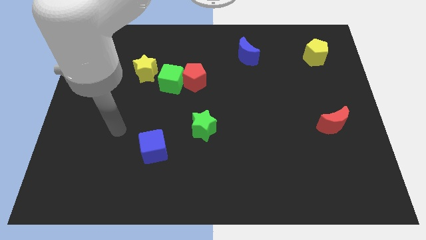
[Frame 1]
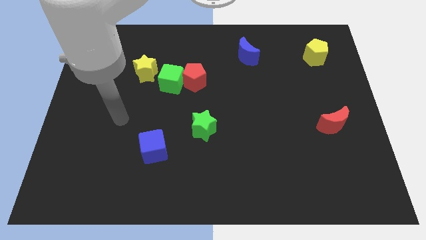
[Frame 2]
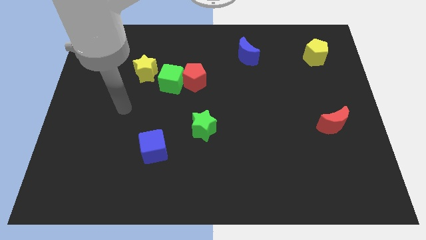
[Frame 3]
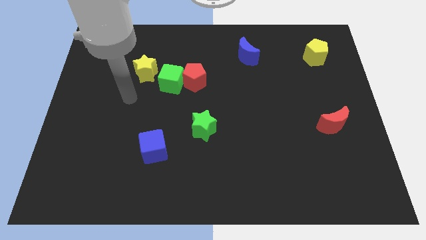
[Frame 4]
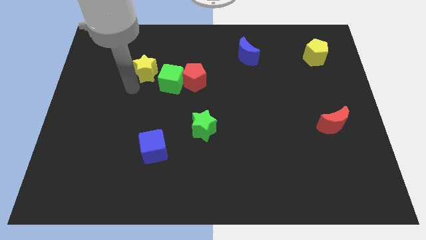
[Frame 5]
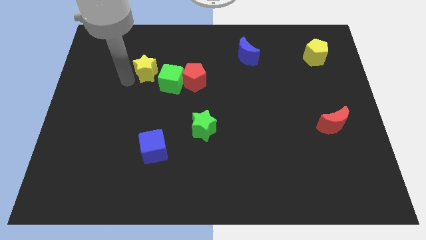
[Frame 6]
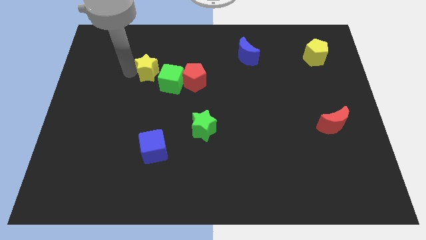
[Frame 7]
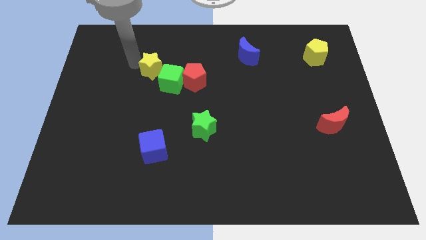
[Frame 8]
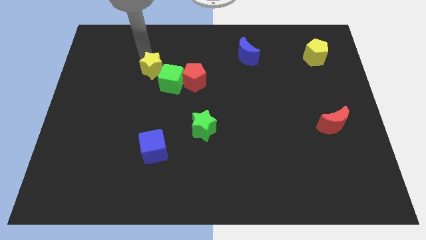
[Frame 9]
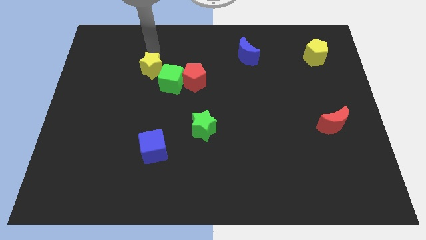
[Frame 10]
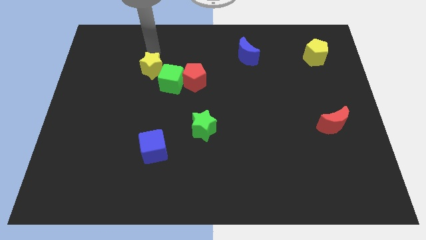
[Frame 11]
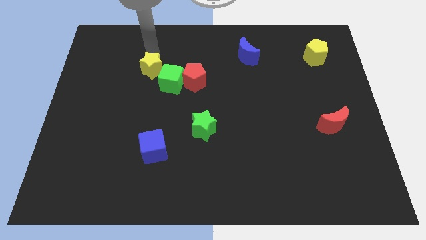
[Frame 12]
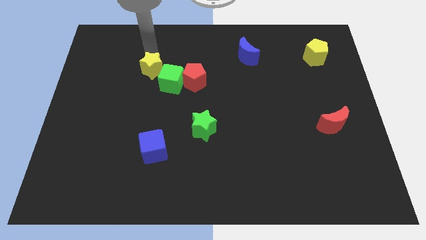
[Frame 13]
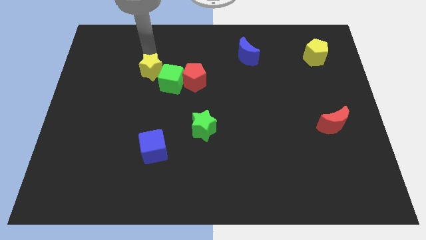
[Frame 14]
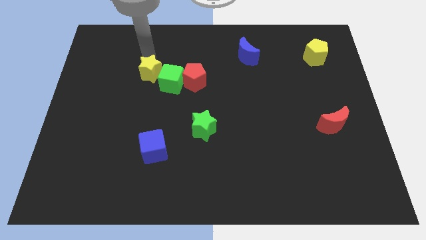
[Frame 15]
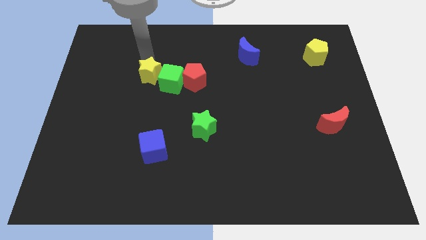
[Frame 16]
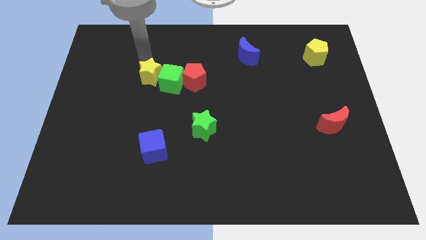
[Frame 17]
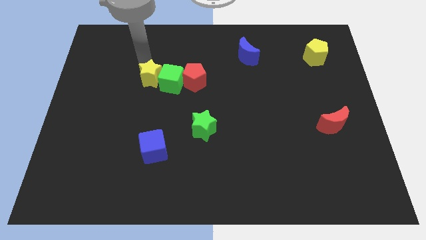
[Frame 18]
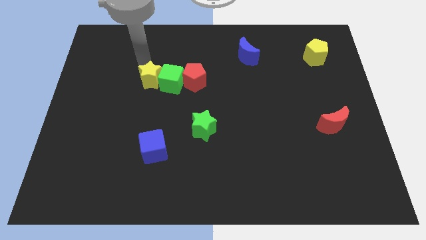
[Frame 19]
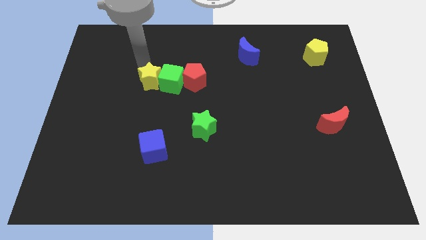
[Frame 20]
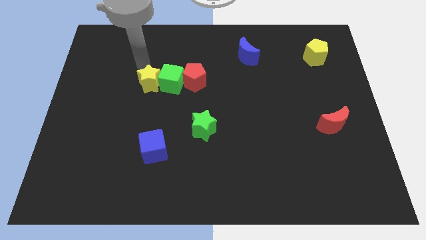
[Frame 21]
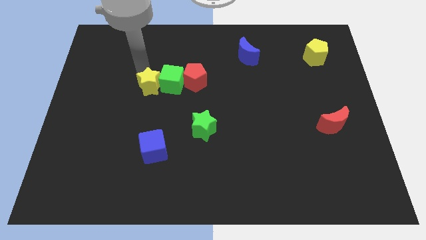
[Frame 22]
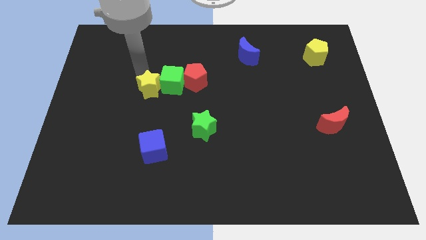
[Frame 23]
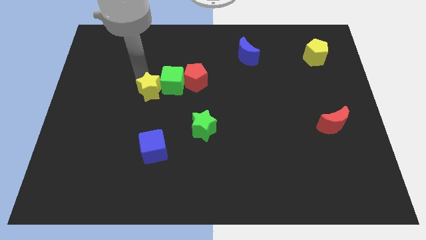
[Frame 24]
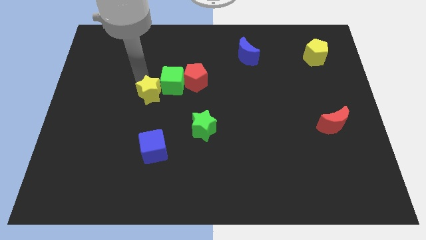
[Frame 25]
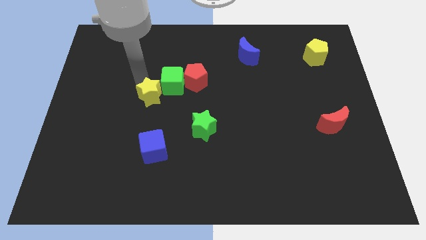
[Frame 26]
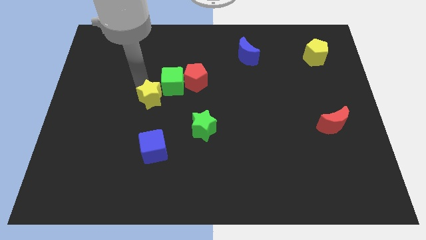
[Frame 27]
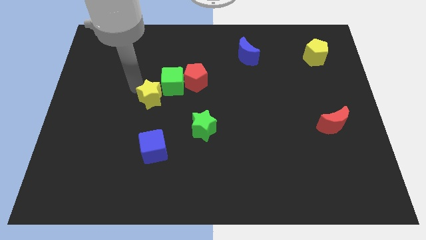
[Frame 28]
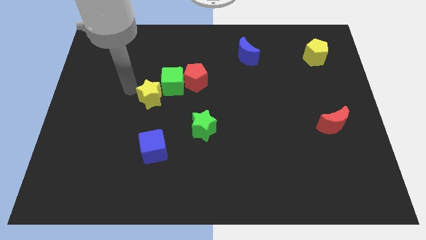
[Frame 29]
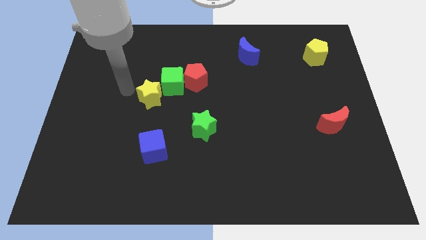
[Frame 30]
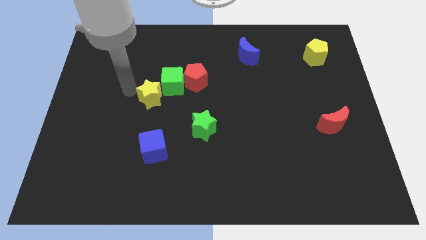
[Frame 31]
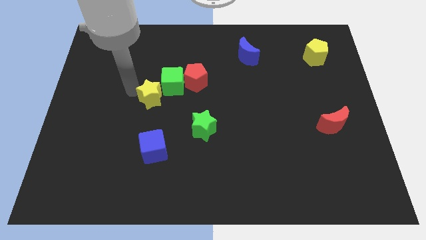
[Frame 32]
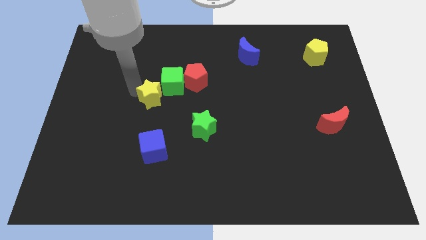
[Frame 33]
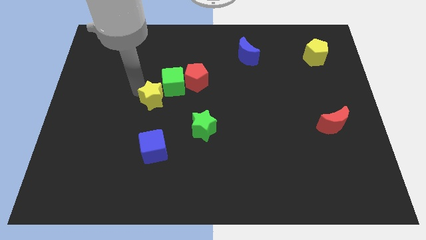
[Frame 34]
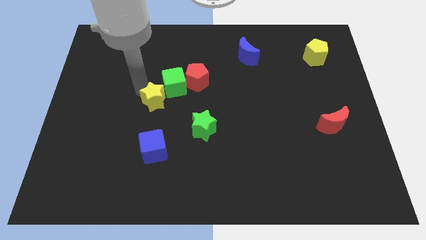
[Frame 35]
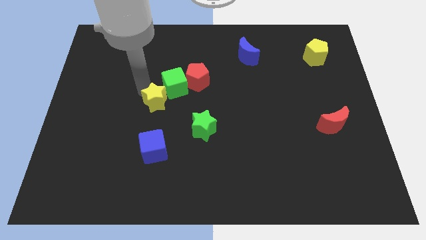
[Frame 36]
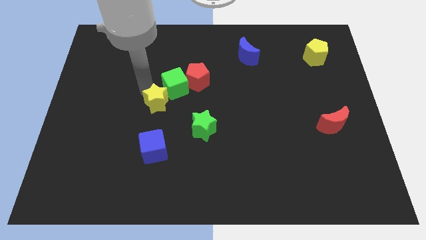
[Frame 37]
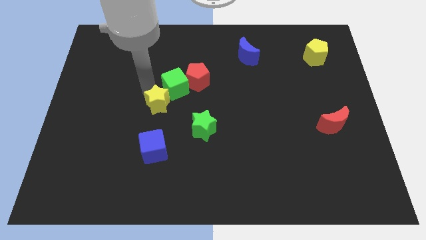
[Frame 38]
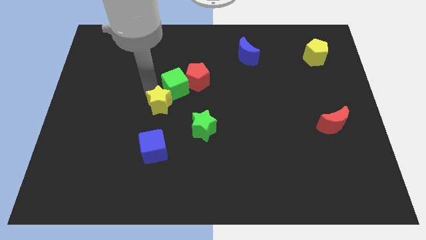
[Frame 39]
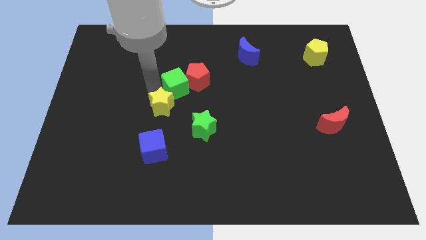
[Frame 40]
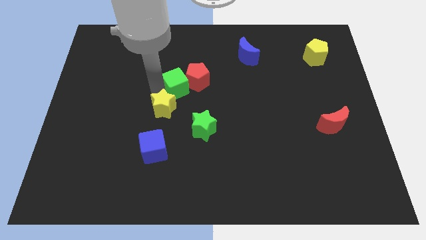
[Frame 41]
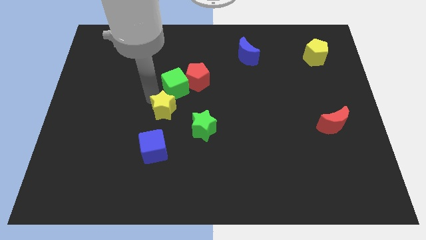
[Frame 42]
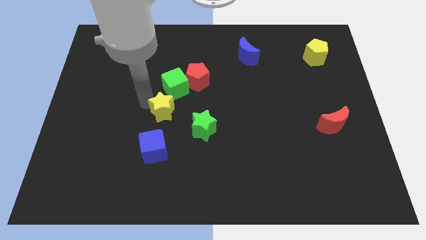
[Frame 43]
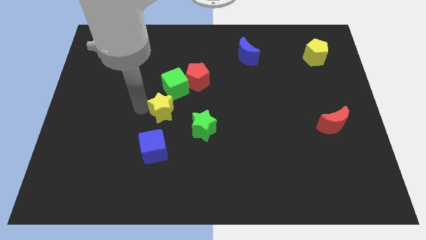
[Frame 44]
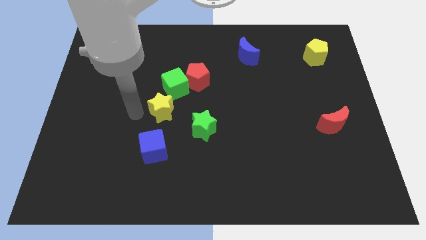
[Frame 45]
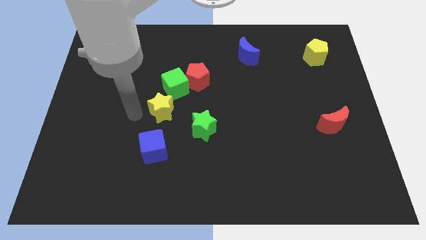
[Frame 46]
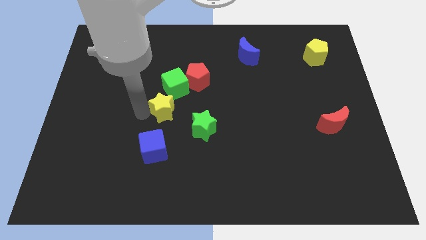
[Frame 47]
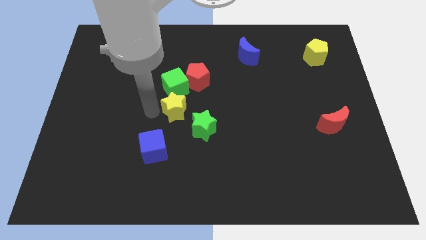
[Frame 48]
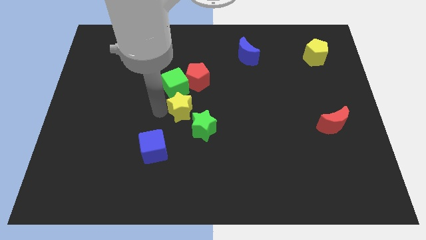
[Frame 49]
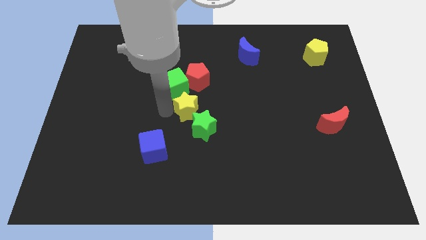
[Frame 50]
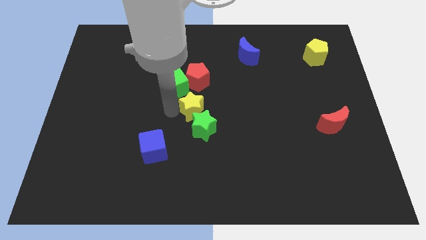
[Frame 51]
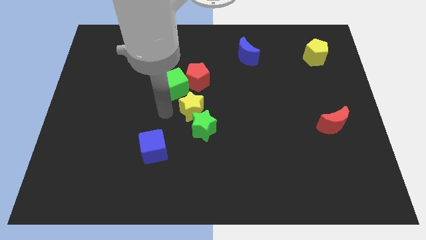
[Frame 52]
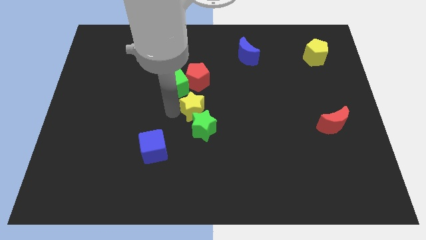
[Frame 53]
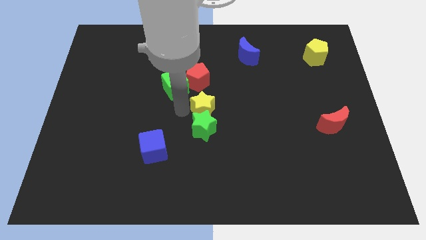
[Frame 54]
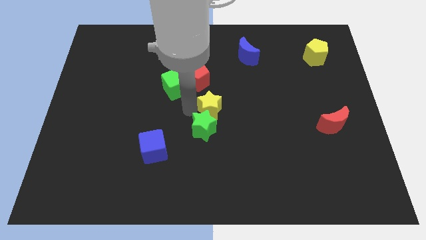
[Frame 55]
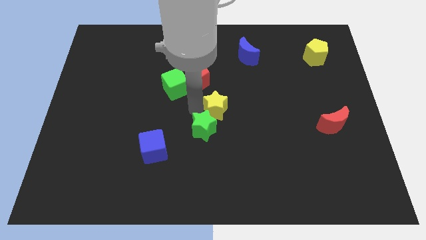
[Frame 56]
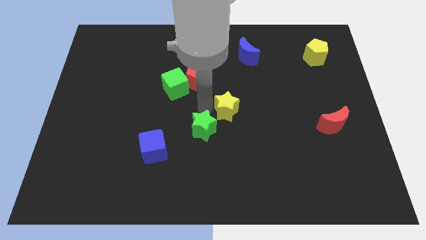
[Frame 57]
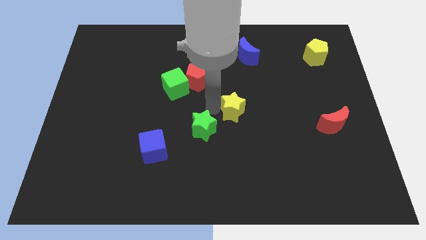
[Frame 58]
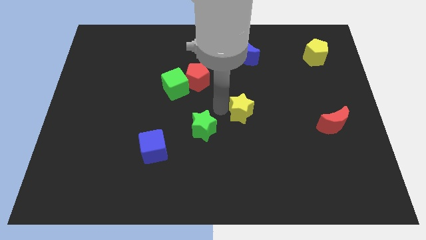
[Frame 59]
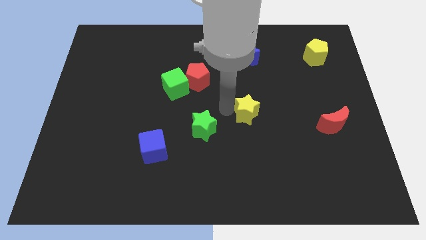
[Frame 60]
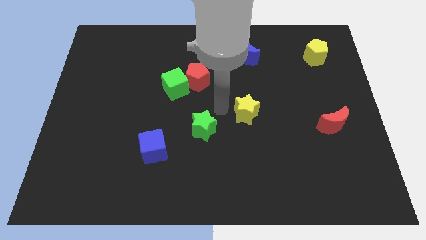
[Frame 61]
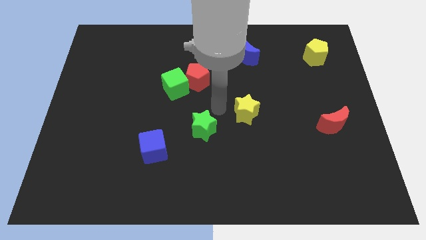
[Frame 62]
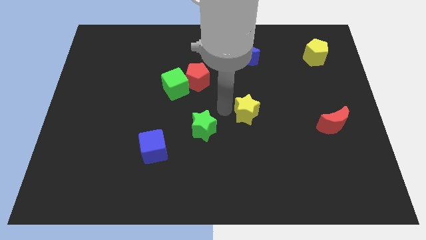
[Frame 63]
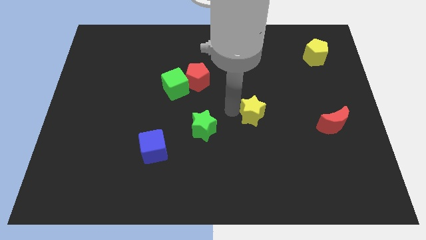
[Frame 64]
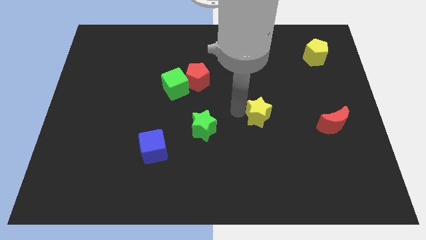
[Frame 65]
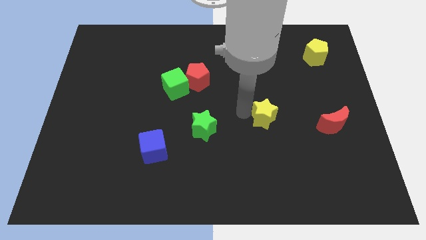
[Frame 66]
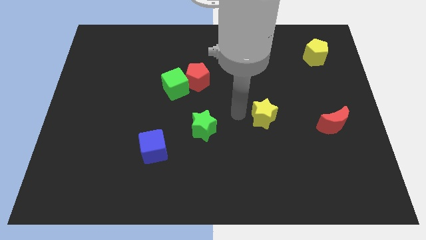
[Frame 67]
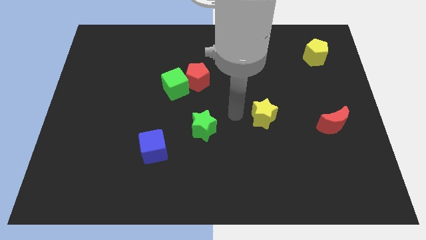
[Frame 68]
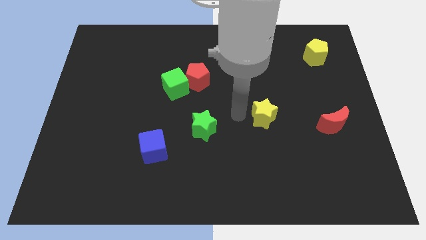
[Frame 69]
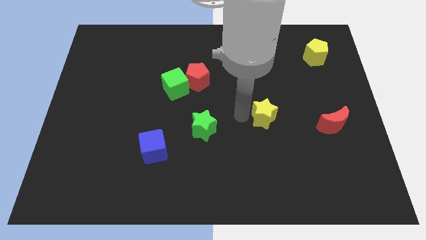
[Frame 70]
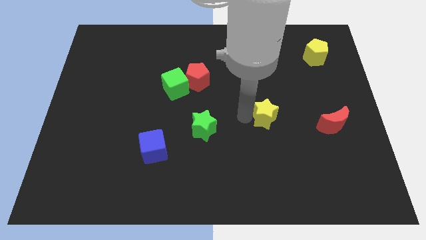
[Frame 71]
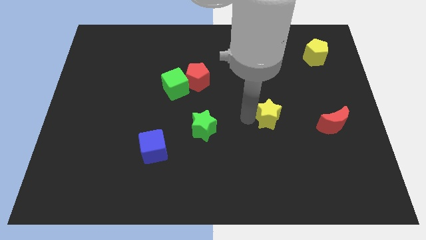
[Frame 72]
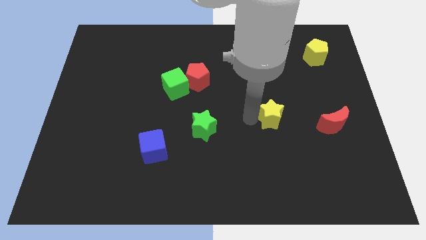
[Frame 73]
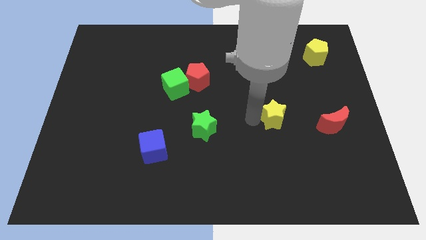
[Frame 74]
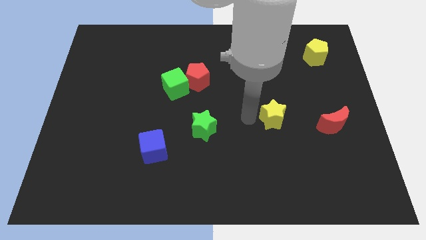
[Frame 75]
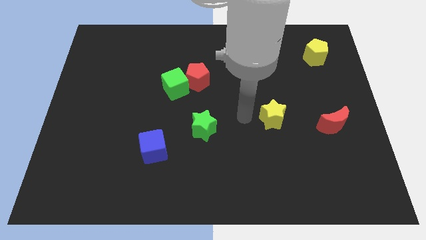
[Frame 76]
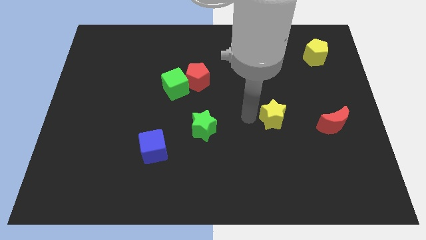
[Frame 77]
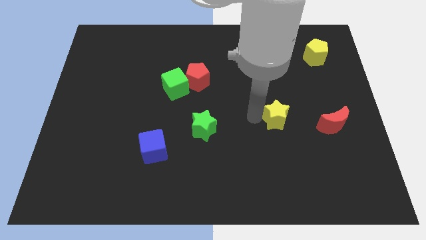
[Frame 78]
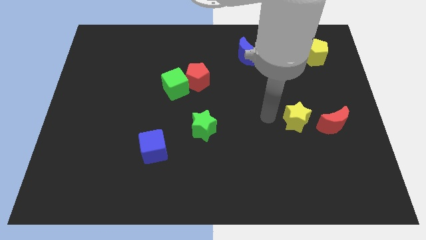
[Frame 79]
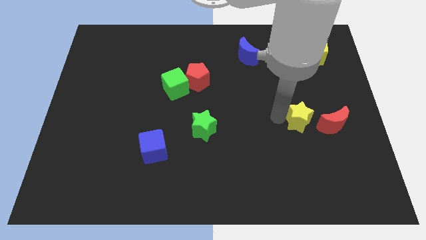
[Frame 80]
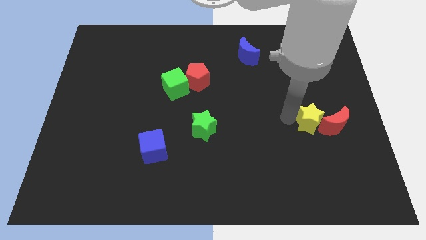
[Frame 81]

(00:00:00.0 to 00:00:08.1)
push the yellow star close to the red moon
